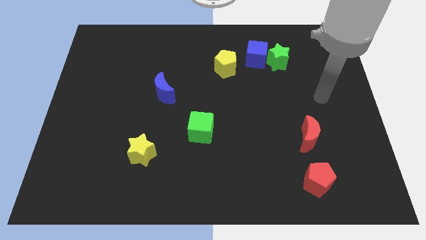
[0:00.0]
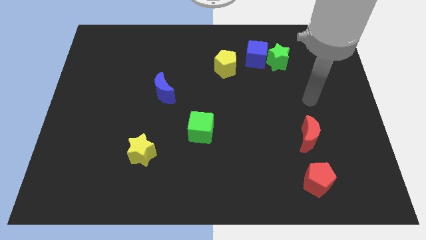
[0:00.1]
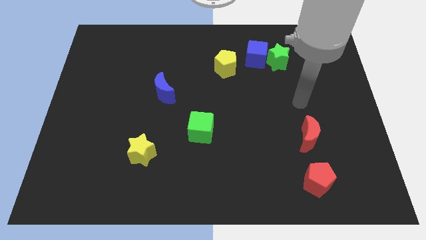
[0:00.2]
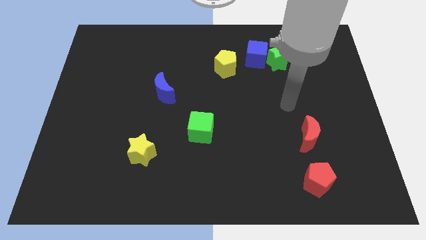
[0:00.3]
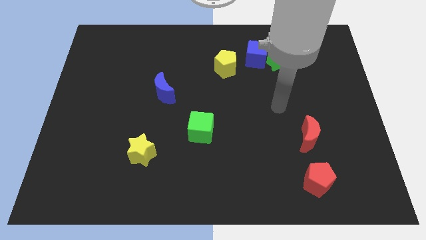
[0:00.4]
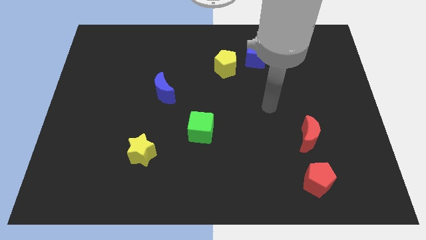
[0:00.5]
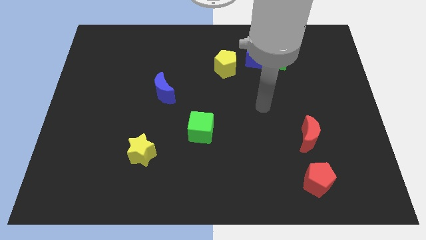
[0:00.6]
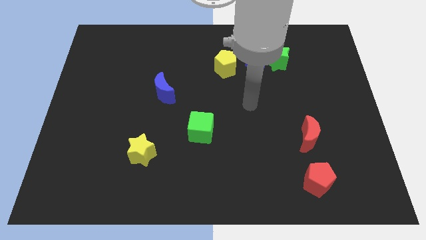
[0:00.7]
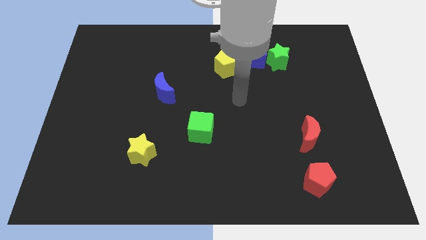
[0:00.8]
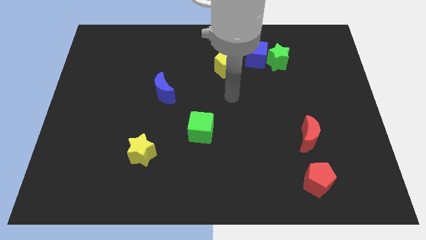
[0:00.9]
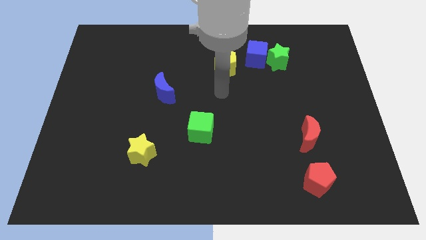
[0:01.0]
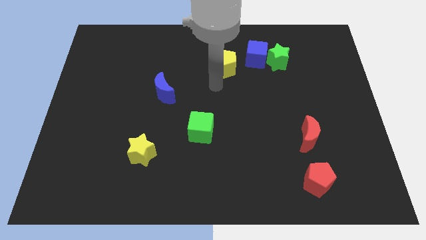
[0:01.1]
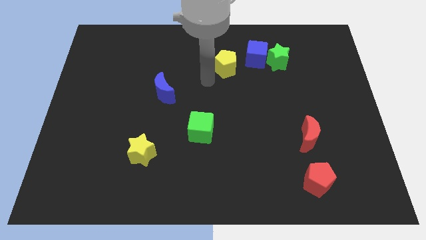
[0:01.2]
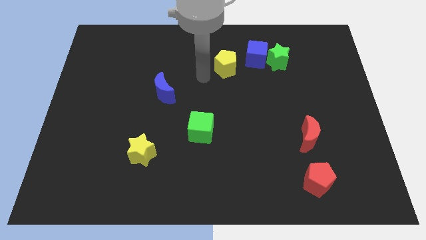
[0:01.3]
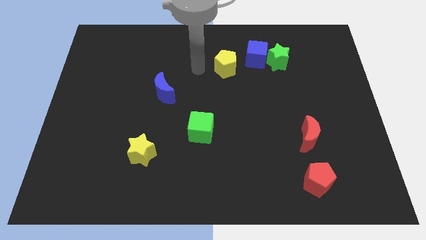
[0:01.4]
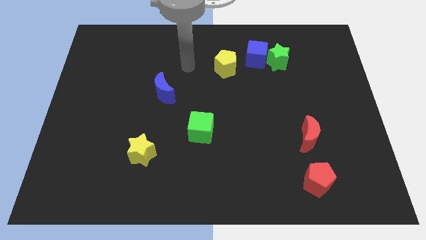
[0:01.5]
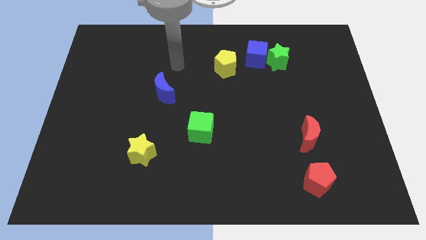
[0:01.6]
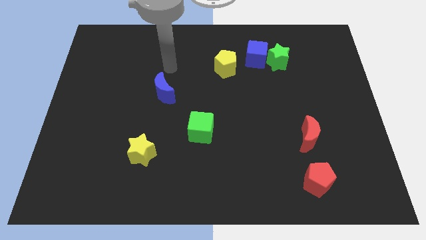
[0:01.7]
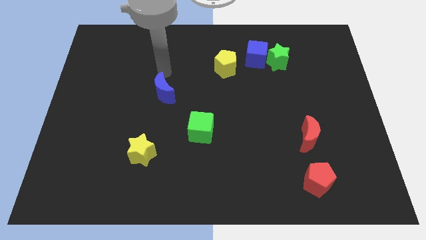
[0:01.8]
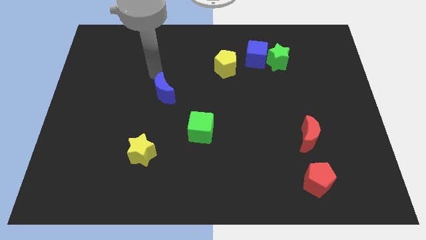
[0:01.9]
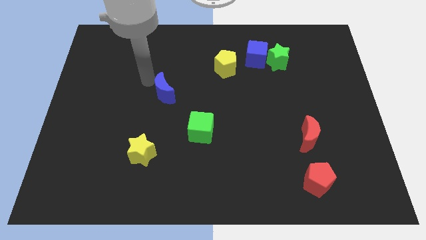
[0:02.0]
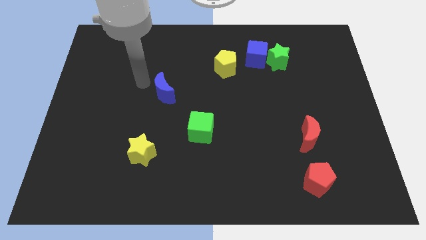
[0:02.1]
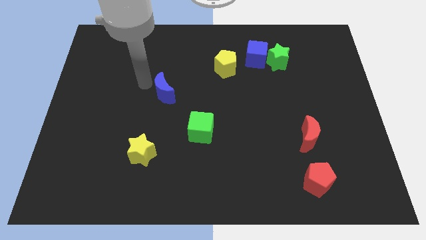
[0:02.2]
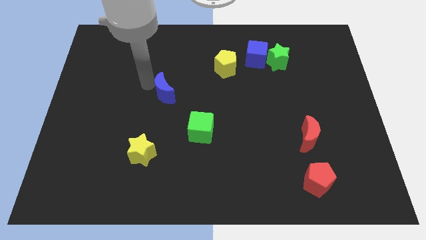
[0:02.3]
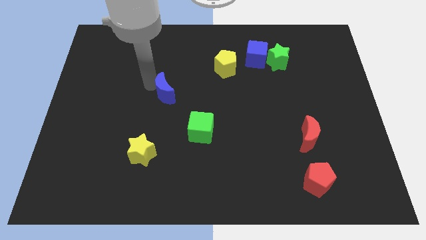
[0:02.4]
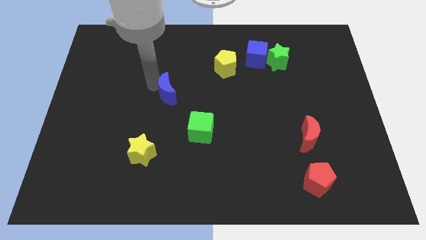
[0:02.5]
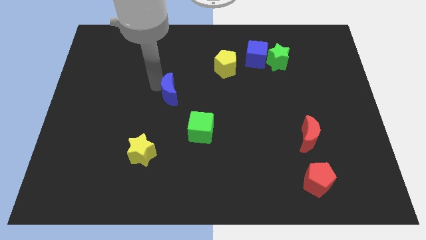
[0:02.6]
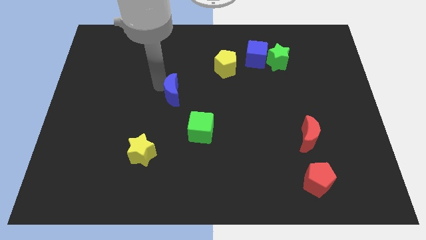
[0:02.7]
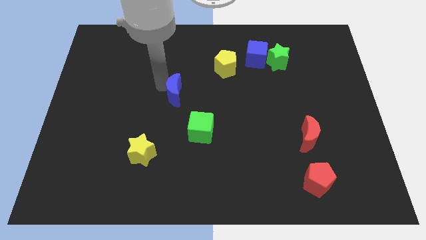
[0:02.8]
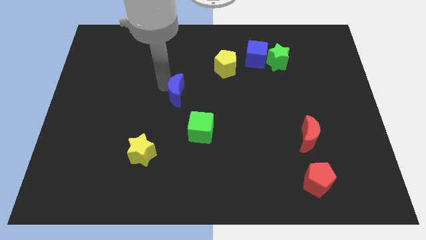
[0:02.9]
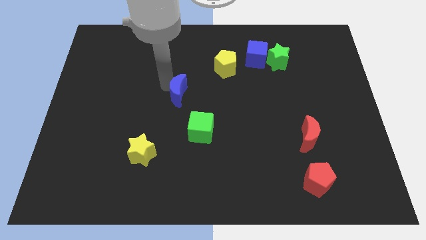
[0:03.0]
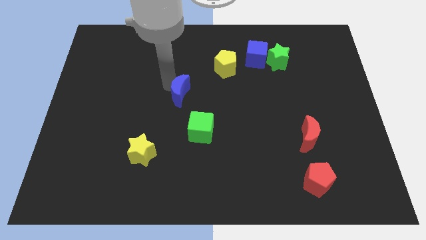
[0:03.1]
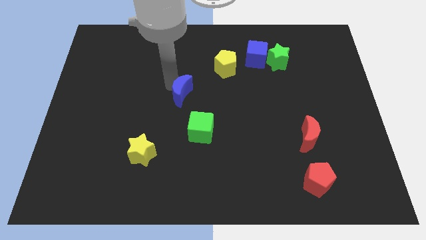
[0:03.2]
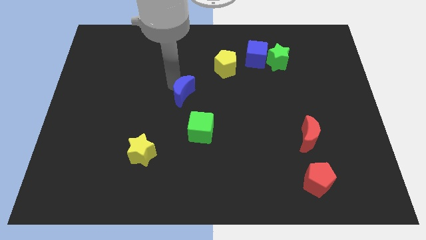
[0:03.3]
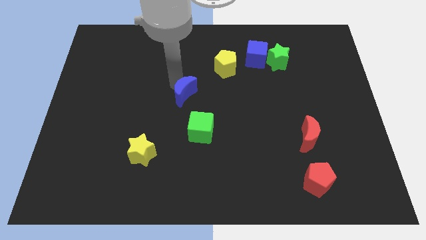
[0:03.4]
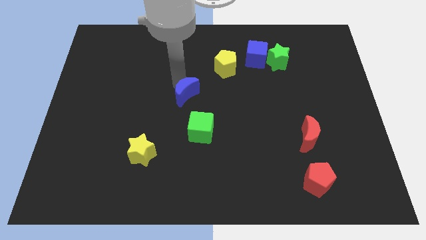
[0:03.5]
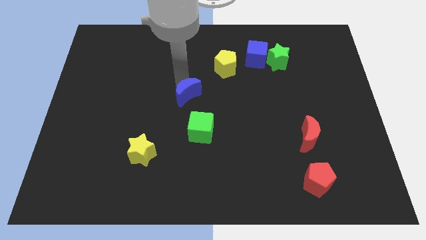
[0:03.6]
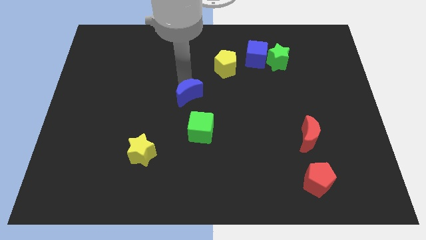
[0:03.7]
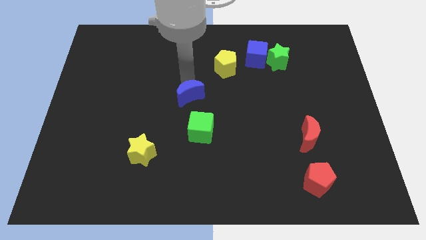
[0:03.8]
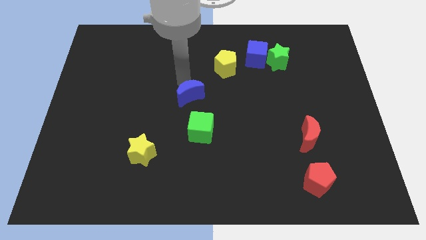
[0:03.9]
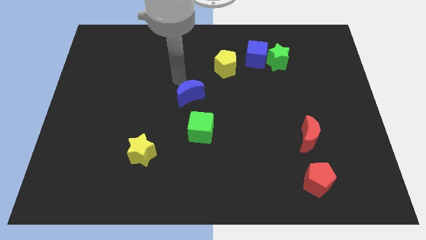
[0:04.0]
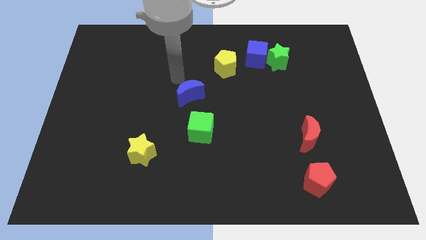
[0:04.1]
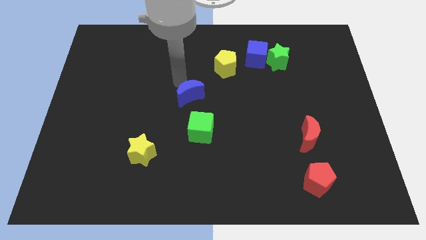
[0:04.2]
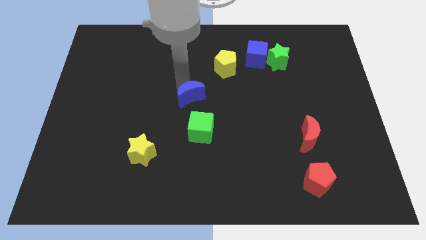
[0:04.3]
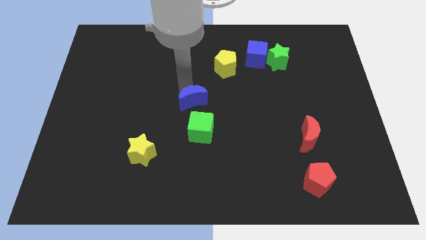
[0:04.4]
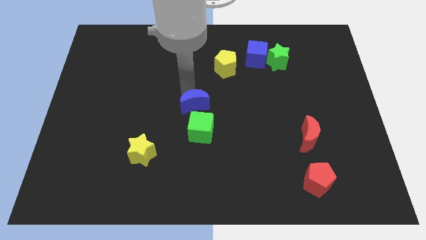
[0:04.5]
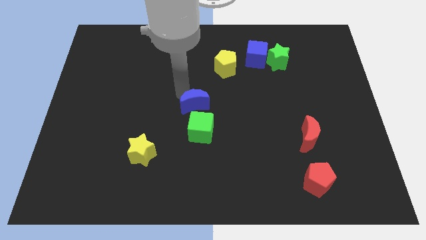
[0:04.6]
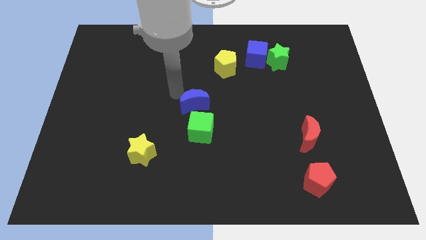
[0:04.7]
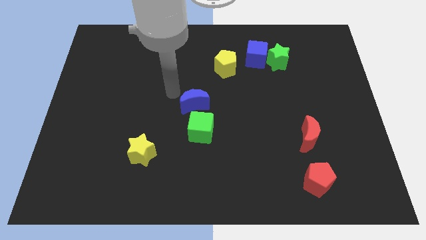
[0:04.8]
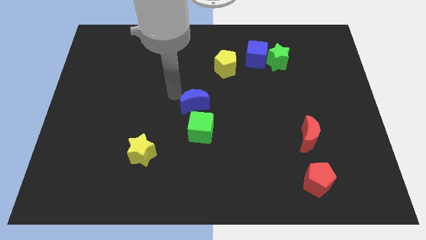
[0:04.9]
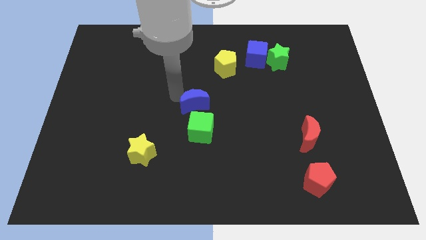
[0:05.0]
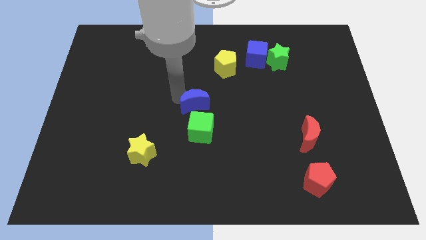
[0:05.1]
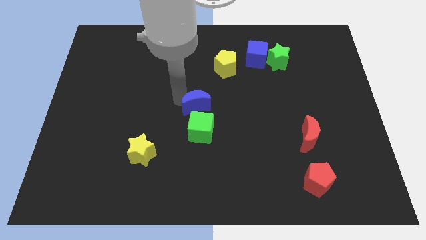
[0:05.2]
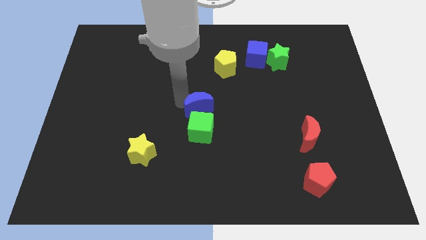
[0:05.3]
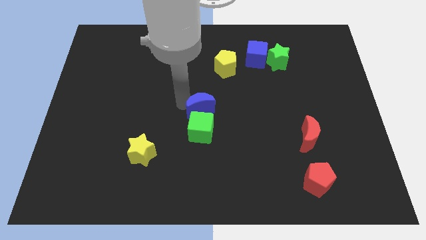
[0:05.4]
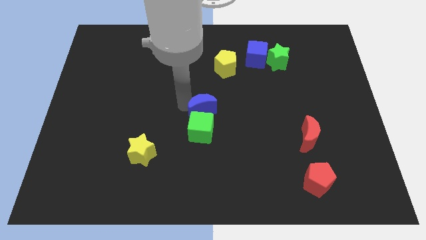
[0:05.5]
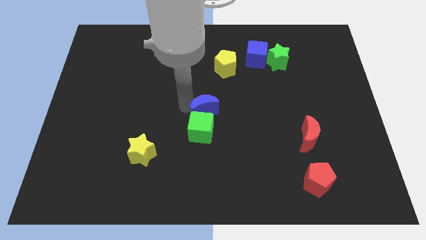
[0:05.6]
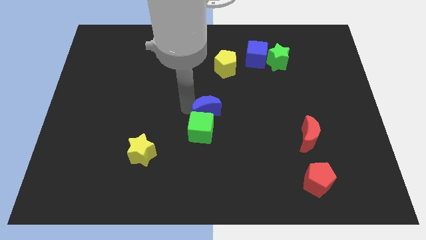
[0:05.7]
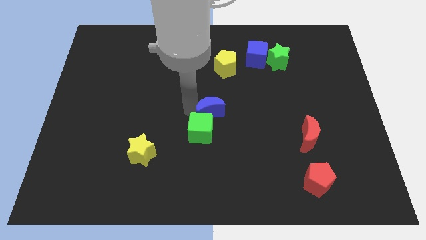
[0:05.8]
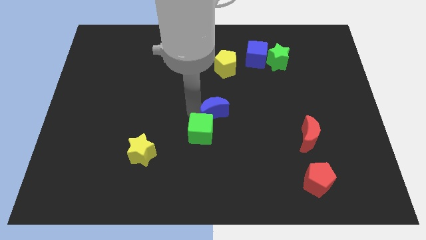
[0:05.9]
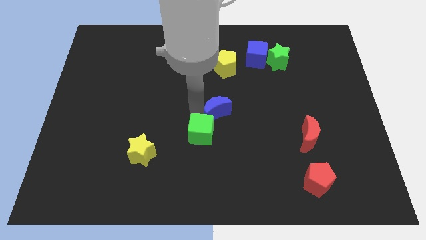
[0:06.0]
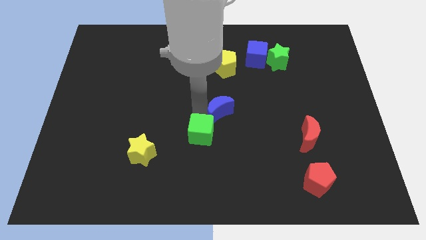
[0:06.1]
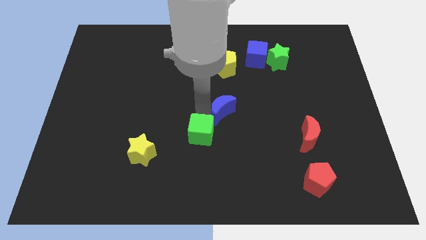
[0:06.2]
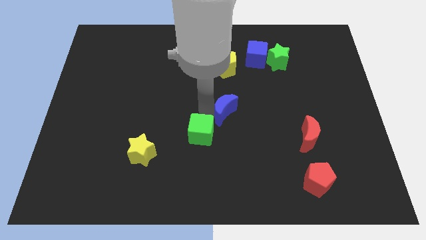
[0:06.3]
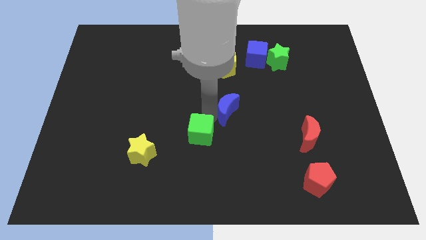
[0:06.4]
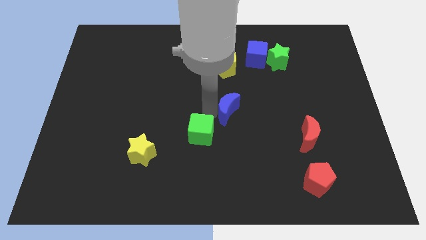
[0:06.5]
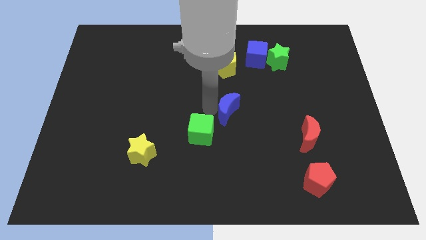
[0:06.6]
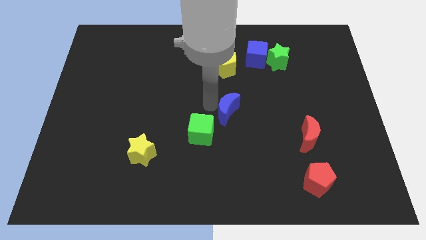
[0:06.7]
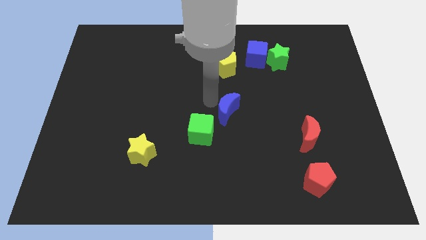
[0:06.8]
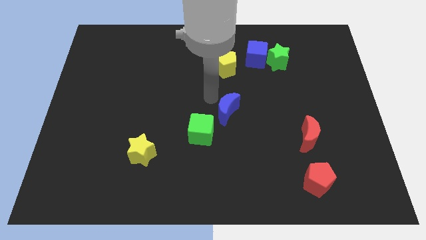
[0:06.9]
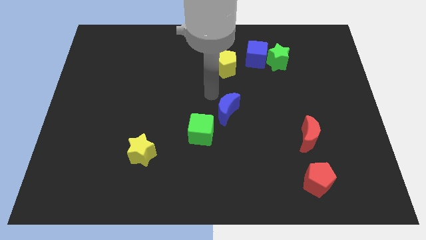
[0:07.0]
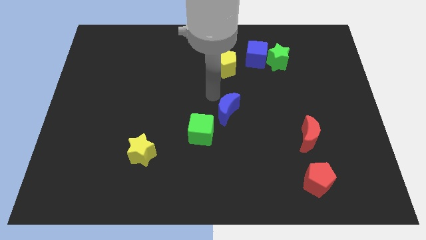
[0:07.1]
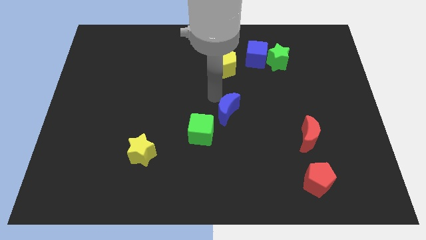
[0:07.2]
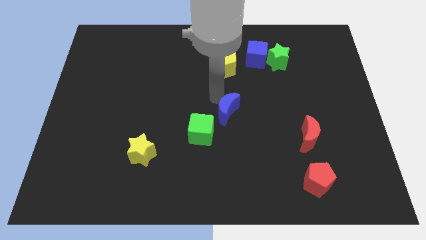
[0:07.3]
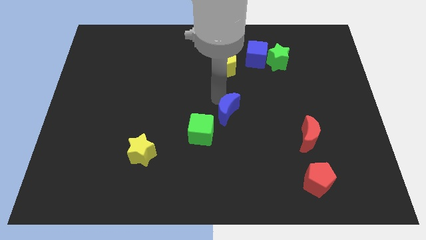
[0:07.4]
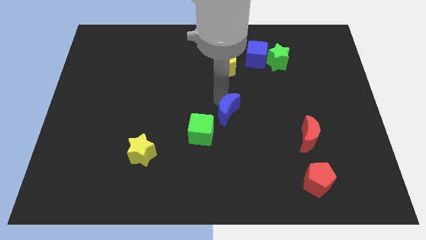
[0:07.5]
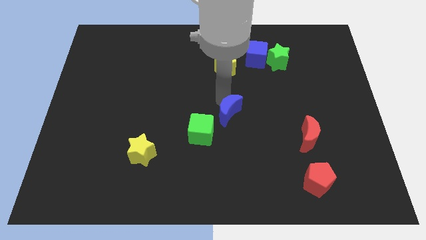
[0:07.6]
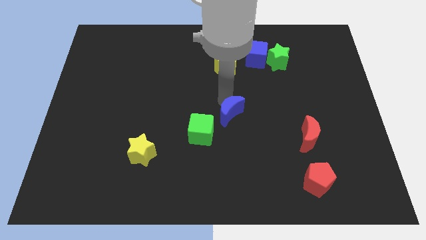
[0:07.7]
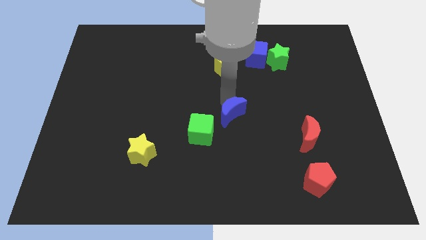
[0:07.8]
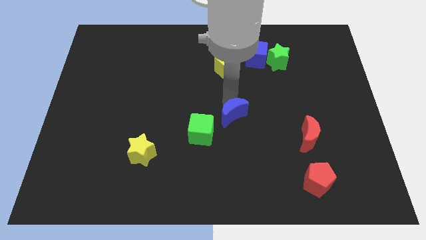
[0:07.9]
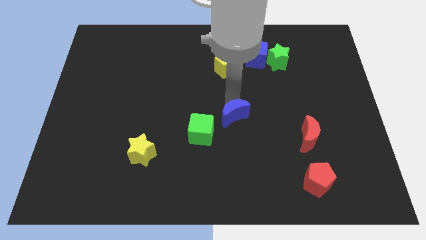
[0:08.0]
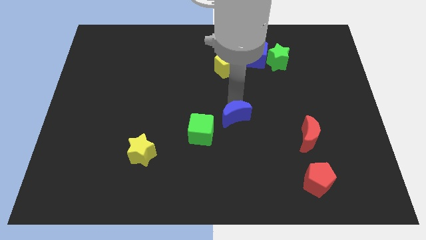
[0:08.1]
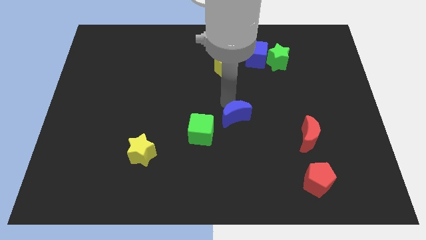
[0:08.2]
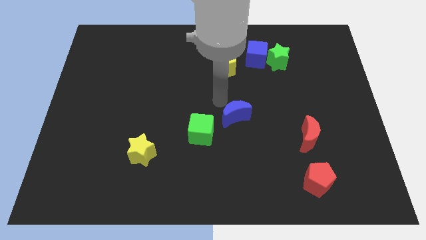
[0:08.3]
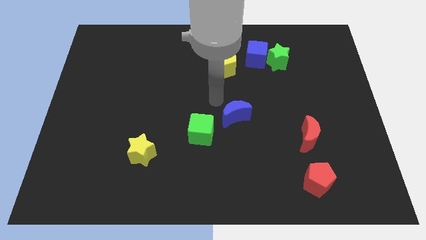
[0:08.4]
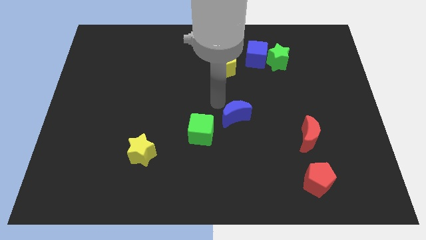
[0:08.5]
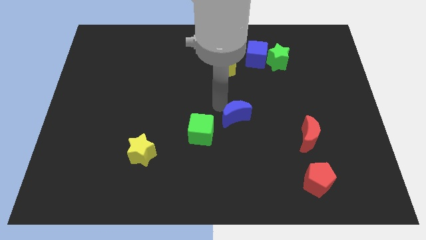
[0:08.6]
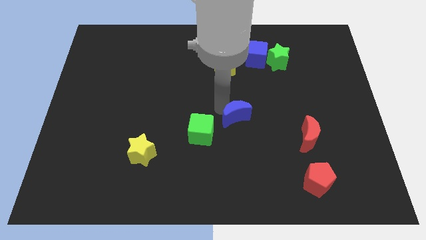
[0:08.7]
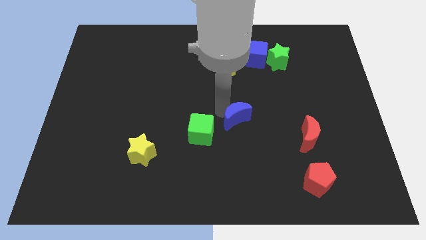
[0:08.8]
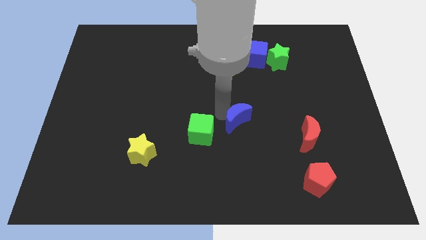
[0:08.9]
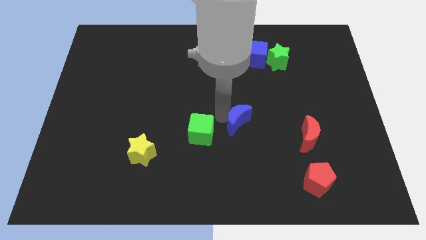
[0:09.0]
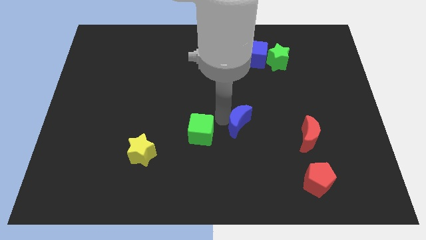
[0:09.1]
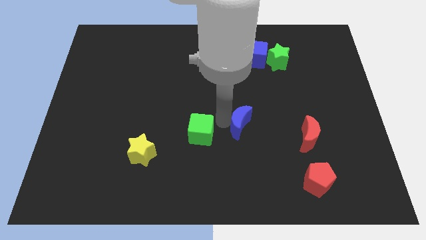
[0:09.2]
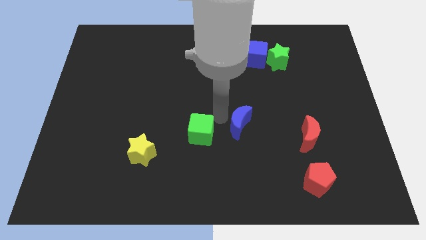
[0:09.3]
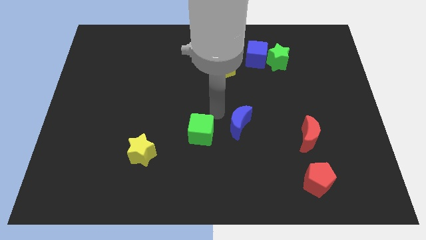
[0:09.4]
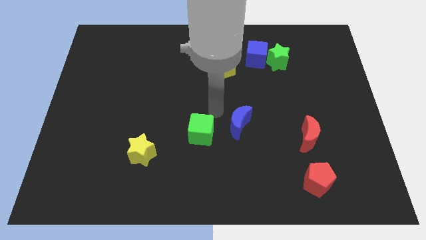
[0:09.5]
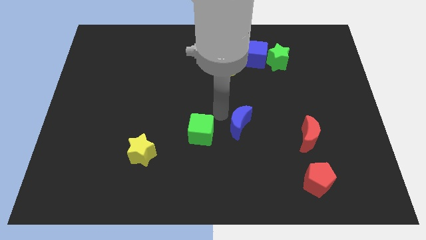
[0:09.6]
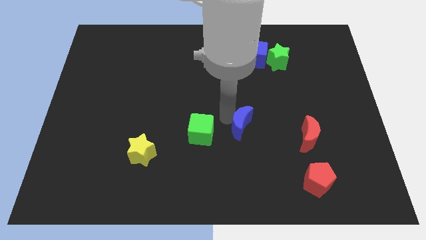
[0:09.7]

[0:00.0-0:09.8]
move the blue moon left of the red moon
